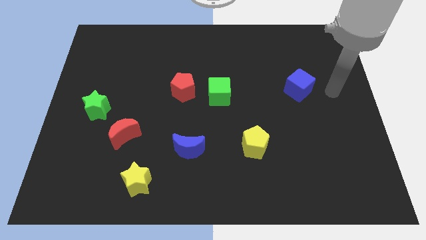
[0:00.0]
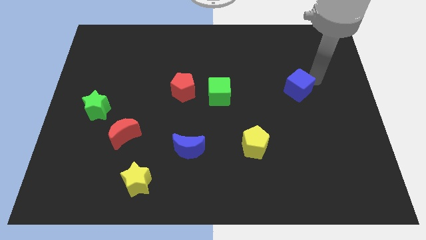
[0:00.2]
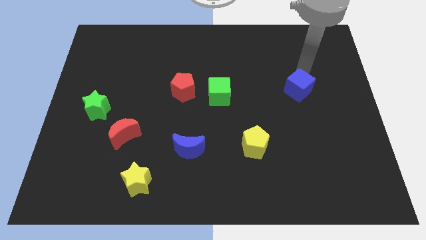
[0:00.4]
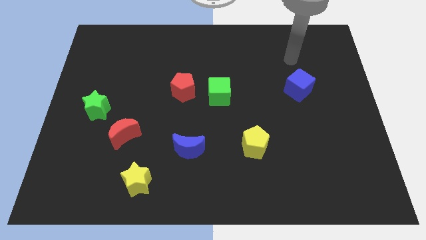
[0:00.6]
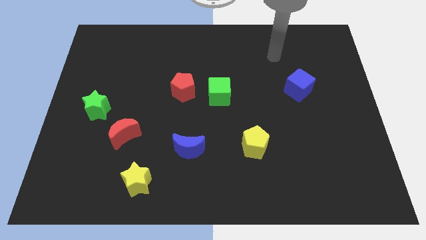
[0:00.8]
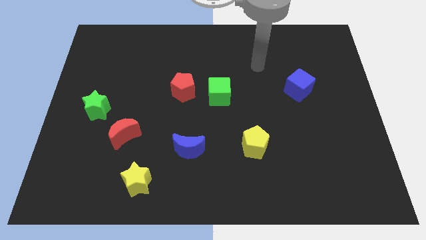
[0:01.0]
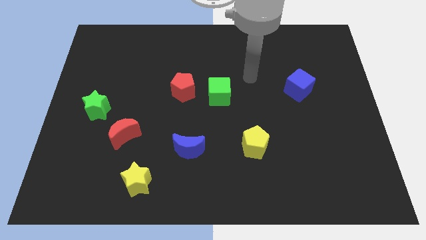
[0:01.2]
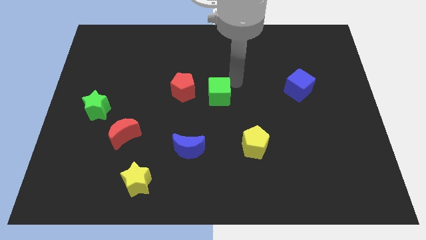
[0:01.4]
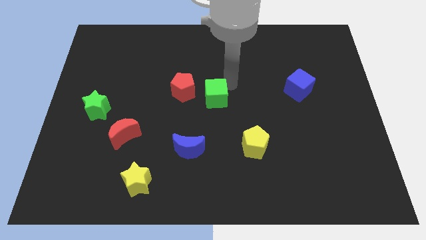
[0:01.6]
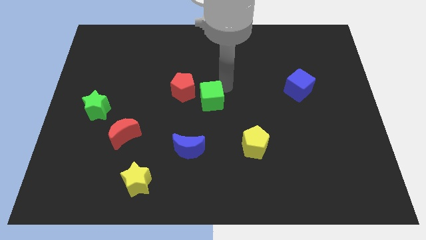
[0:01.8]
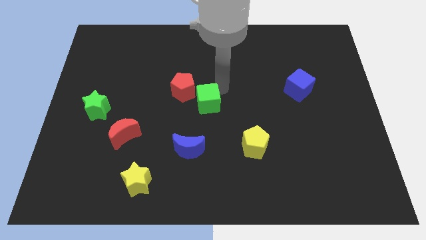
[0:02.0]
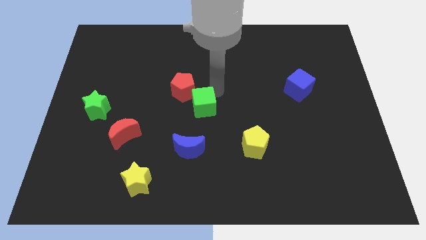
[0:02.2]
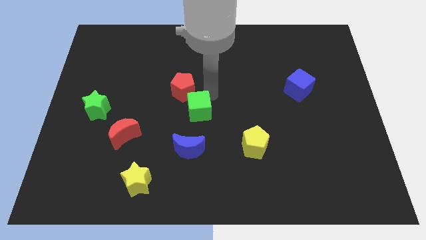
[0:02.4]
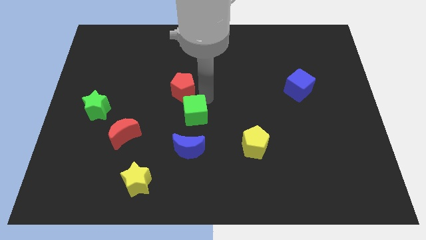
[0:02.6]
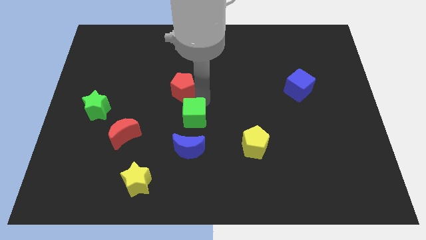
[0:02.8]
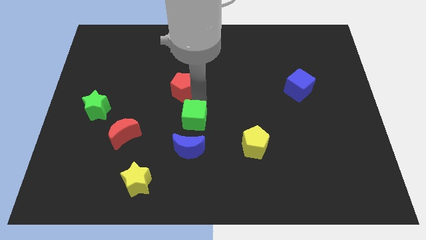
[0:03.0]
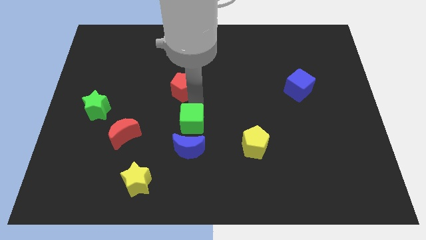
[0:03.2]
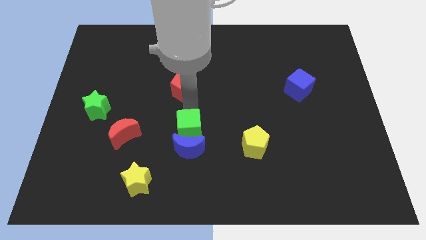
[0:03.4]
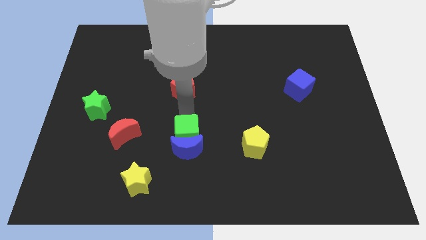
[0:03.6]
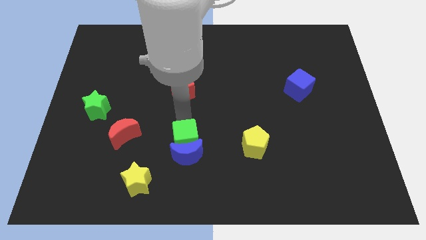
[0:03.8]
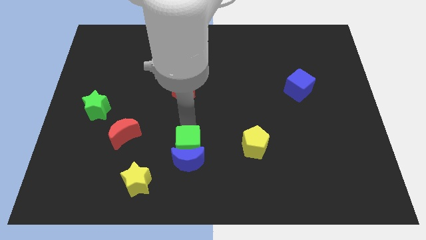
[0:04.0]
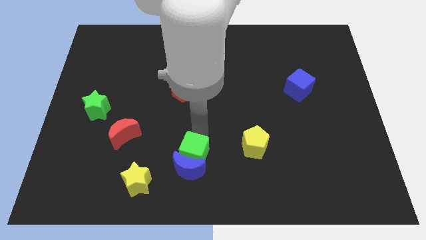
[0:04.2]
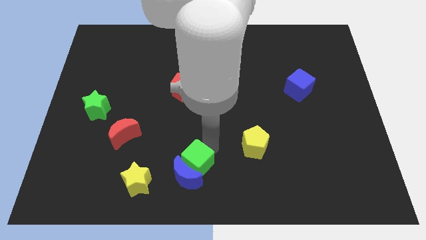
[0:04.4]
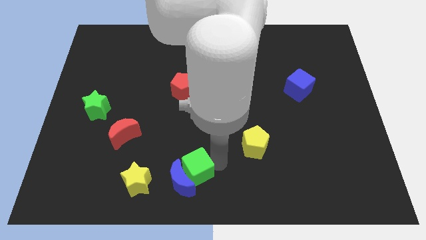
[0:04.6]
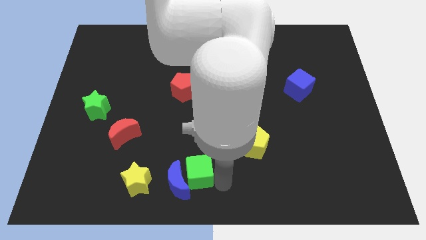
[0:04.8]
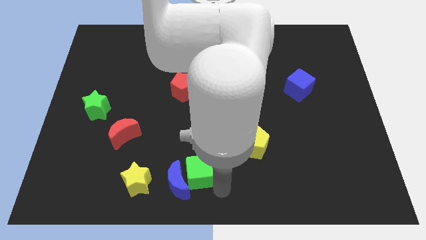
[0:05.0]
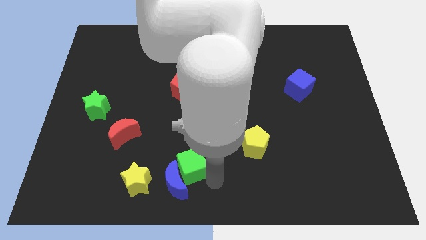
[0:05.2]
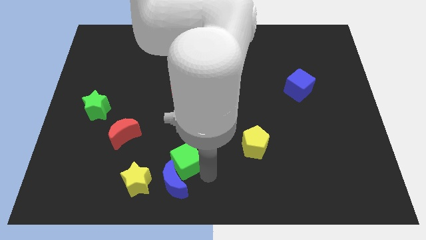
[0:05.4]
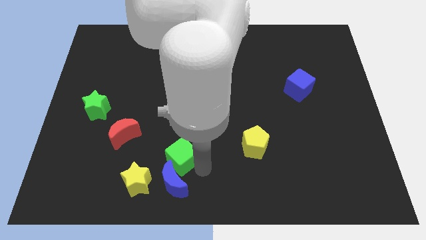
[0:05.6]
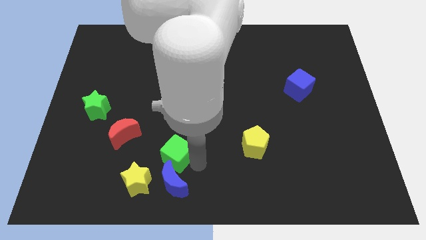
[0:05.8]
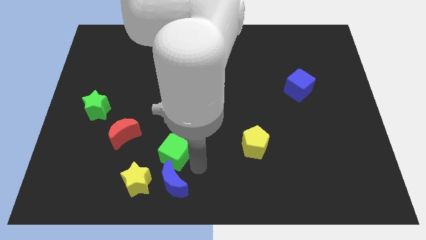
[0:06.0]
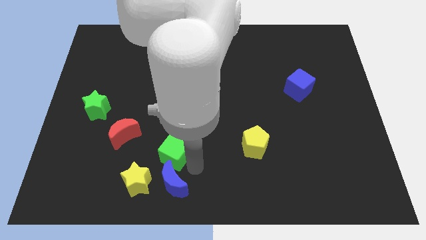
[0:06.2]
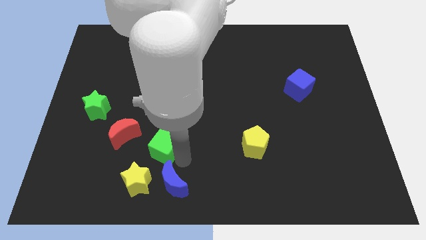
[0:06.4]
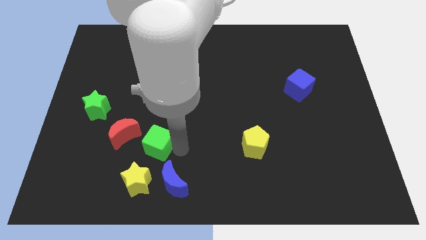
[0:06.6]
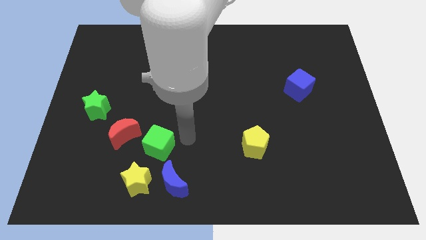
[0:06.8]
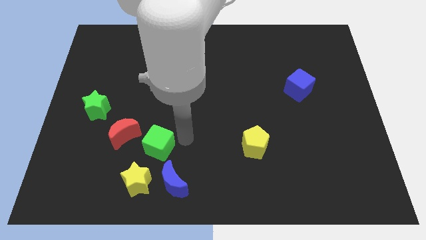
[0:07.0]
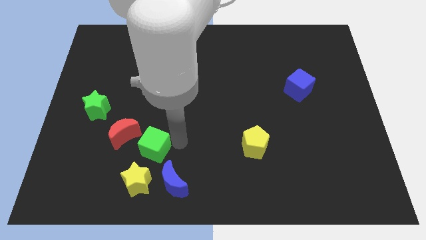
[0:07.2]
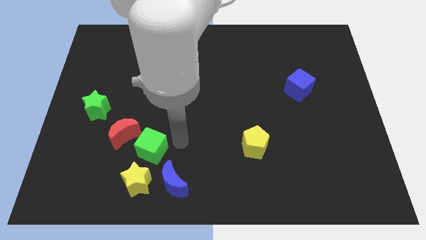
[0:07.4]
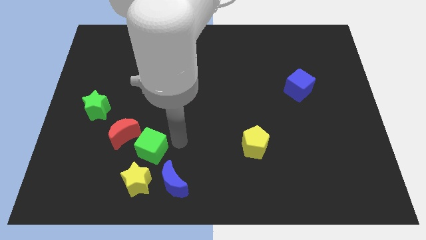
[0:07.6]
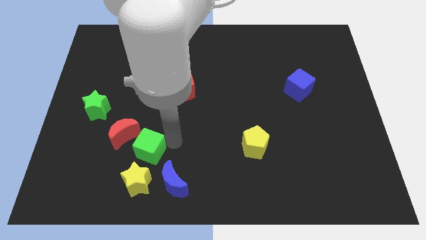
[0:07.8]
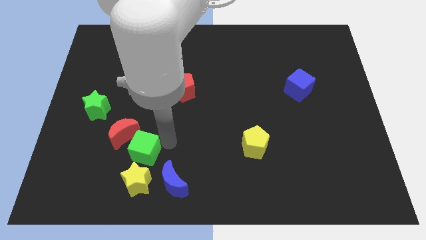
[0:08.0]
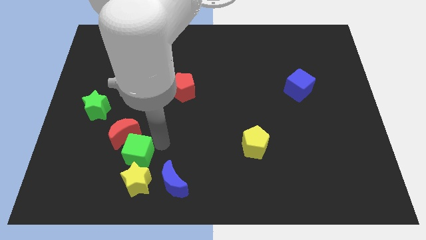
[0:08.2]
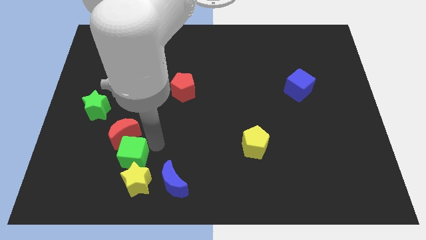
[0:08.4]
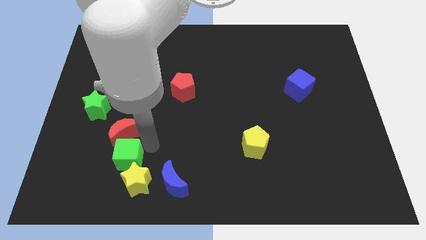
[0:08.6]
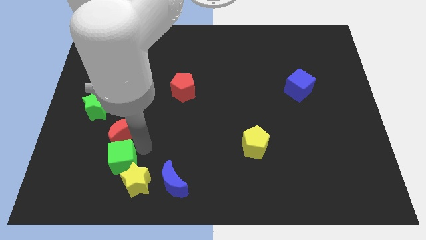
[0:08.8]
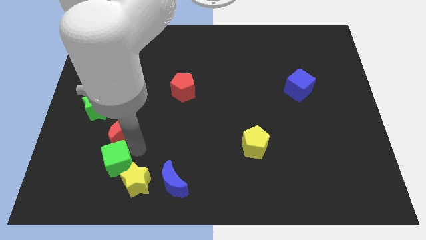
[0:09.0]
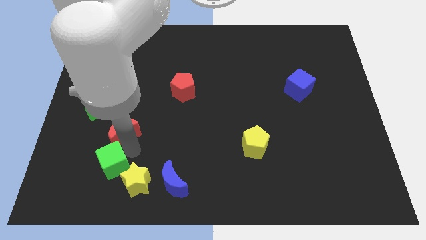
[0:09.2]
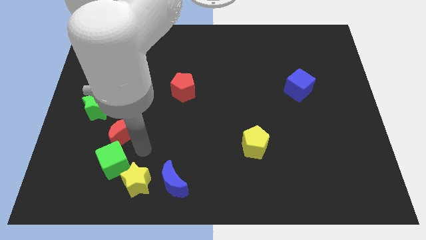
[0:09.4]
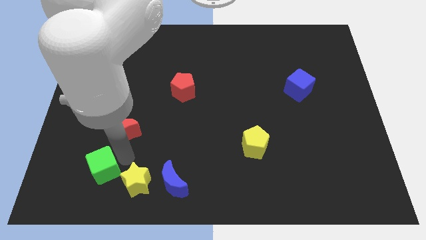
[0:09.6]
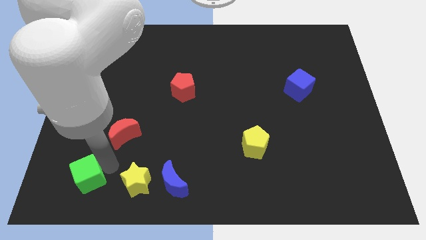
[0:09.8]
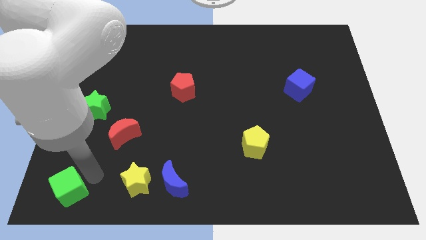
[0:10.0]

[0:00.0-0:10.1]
push the green cube to the lower left corner
